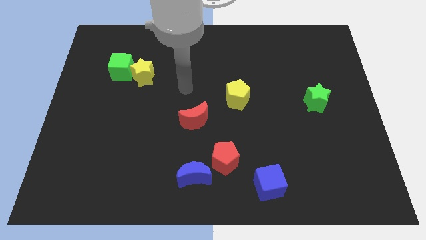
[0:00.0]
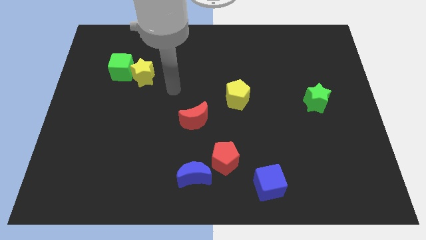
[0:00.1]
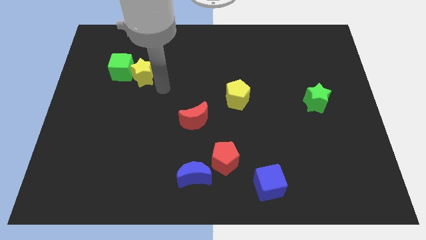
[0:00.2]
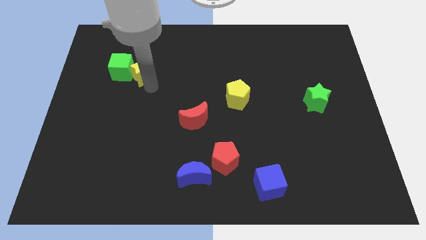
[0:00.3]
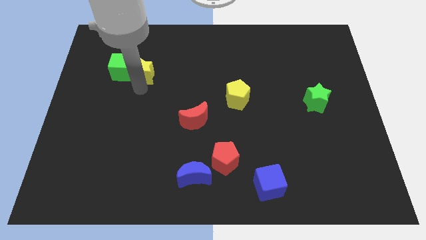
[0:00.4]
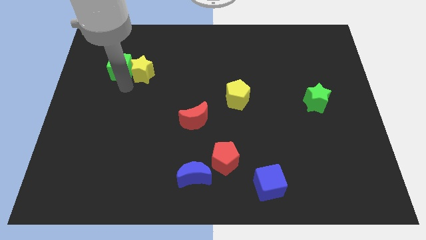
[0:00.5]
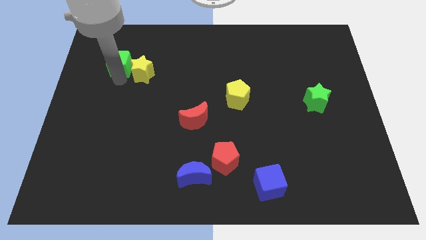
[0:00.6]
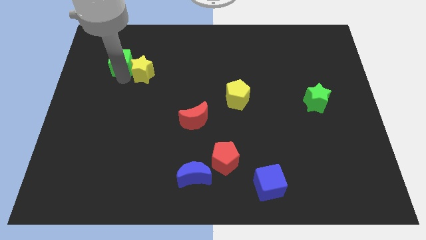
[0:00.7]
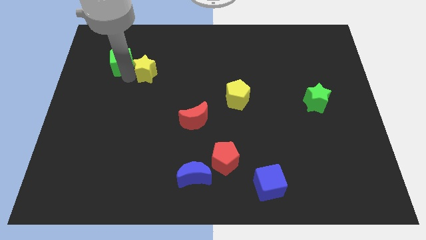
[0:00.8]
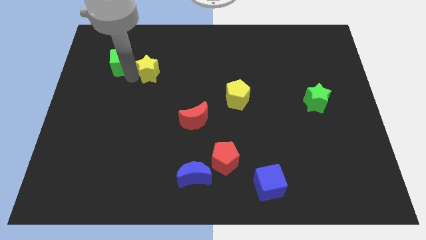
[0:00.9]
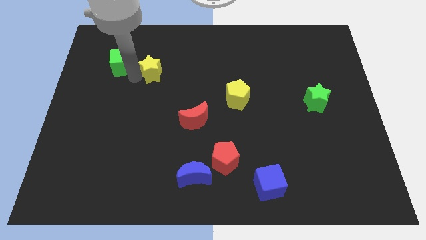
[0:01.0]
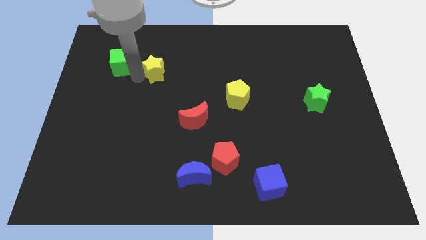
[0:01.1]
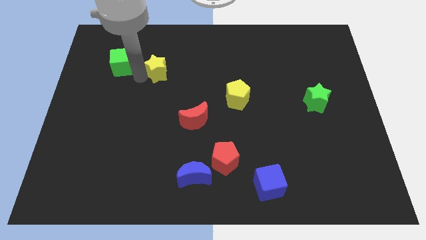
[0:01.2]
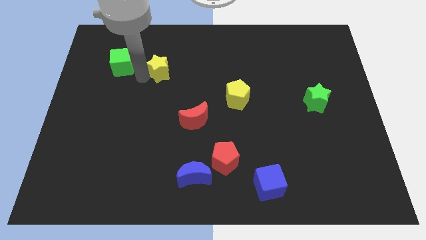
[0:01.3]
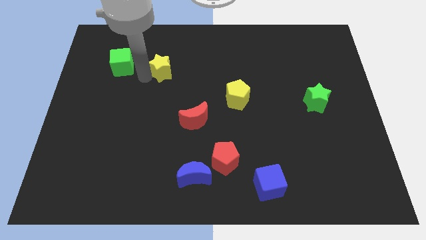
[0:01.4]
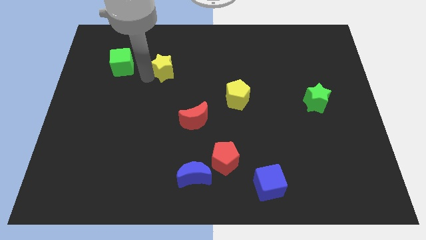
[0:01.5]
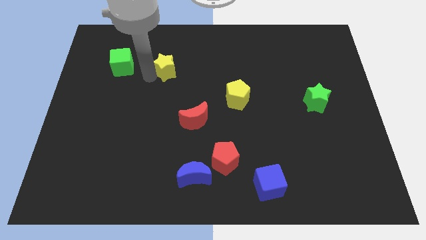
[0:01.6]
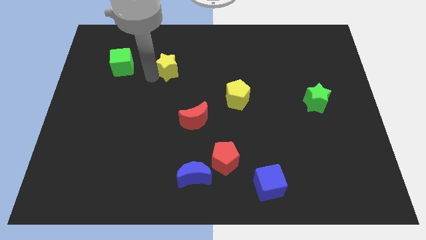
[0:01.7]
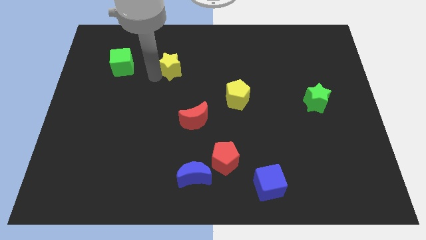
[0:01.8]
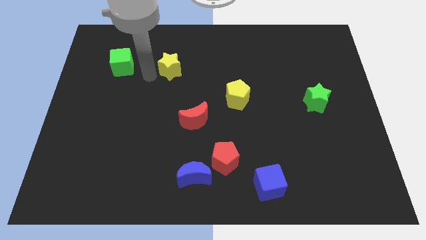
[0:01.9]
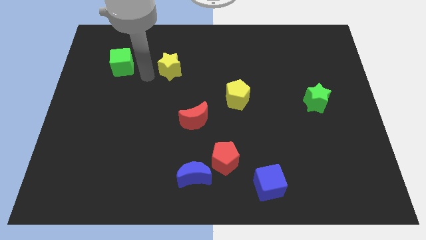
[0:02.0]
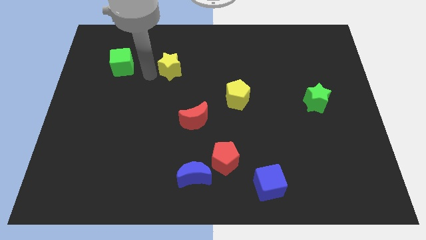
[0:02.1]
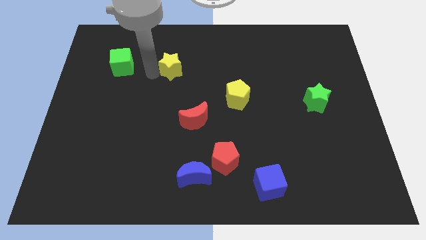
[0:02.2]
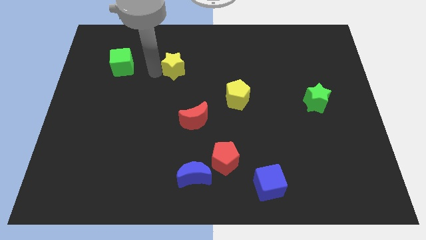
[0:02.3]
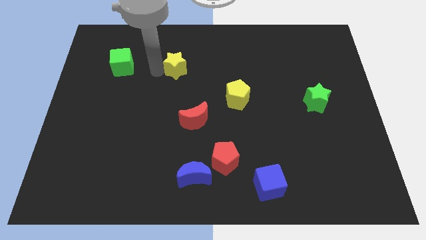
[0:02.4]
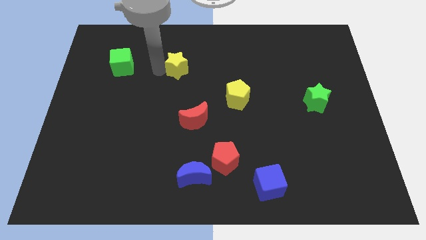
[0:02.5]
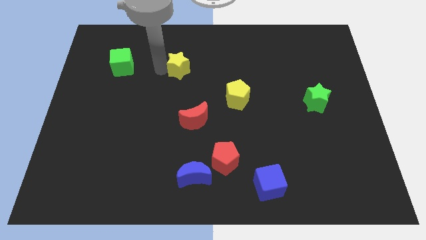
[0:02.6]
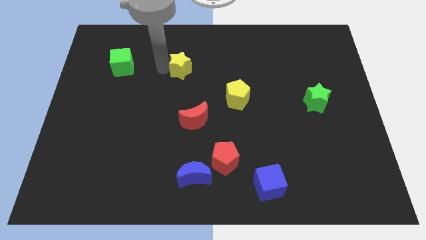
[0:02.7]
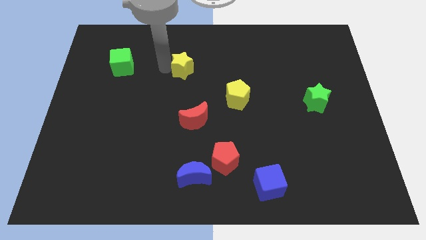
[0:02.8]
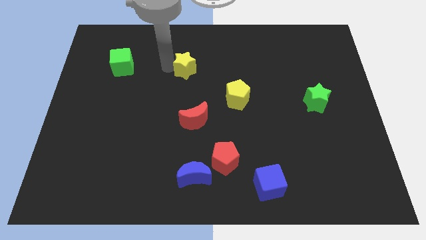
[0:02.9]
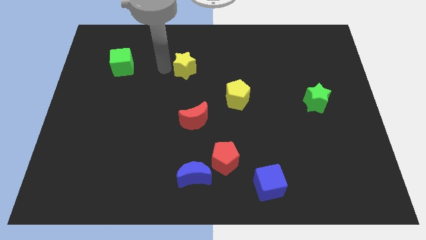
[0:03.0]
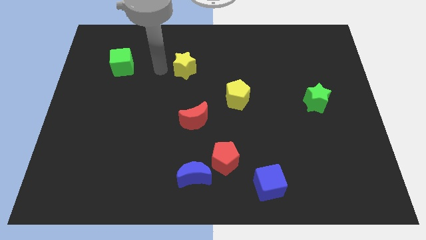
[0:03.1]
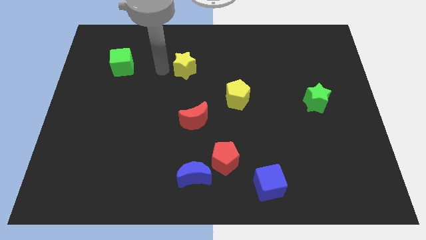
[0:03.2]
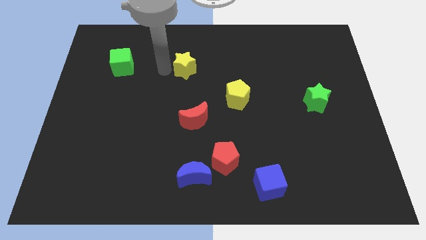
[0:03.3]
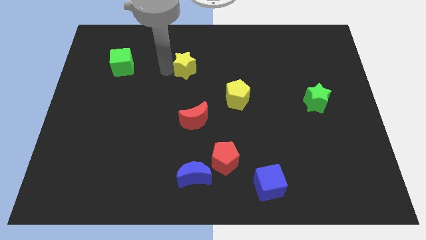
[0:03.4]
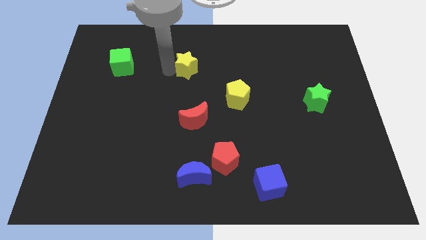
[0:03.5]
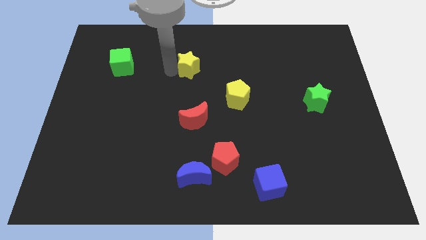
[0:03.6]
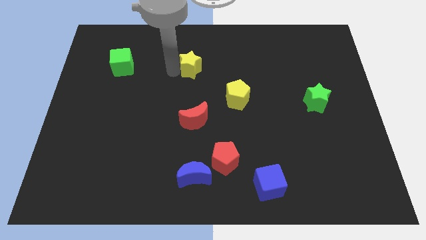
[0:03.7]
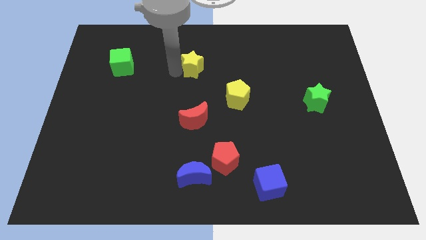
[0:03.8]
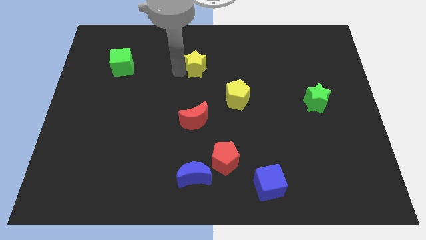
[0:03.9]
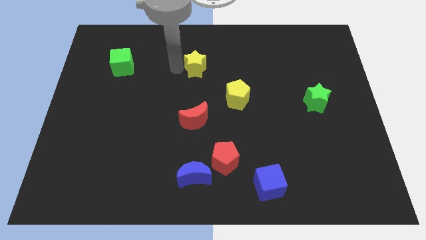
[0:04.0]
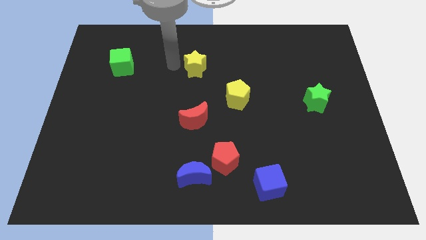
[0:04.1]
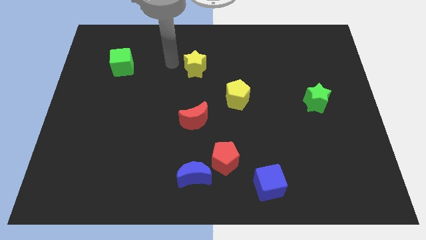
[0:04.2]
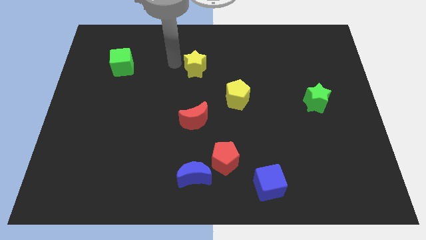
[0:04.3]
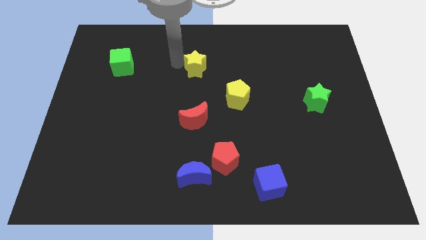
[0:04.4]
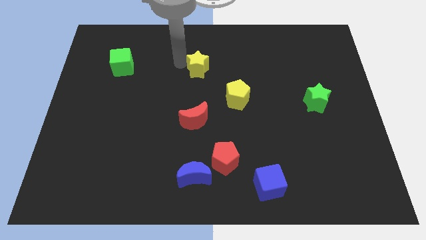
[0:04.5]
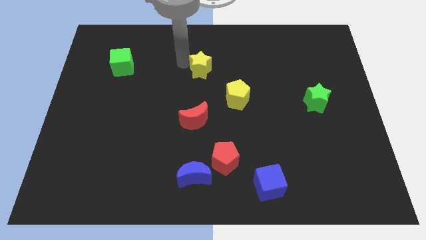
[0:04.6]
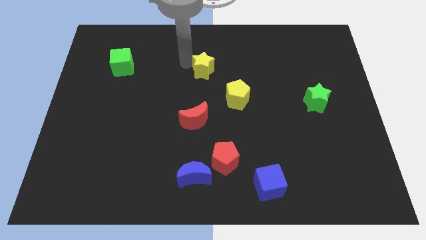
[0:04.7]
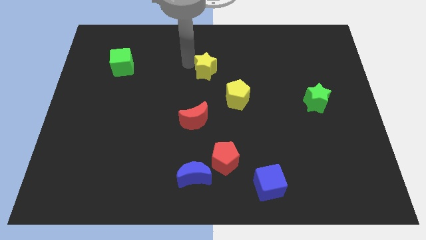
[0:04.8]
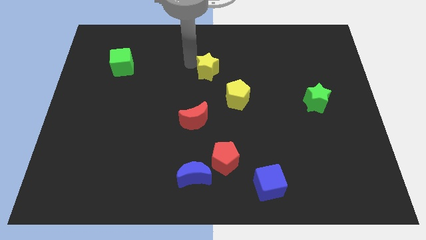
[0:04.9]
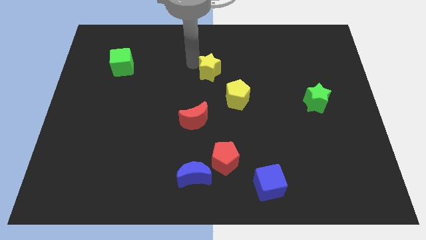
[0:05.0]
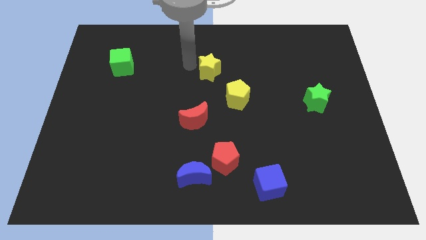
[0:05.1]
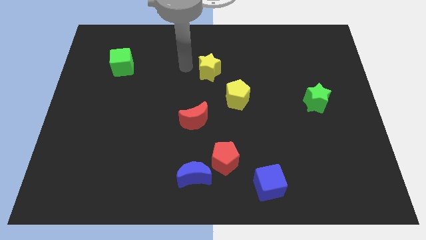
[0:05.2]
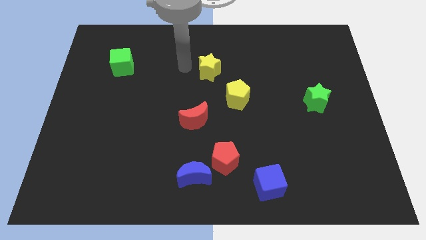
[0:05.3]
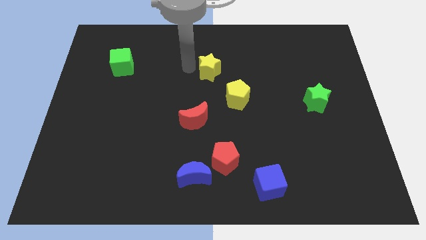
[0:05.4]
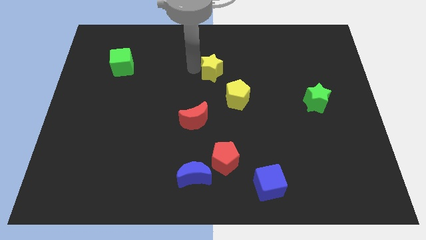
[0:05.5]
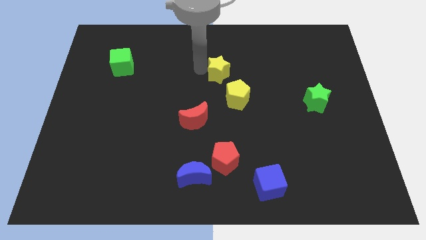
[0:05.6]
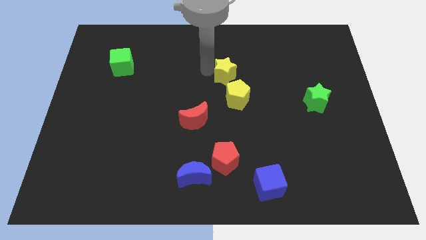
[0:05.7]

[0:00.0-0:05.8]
push the yellow star right

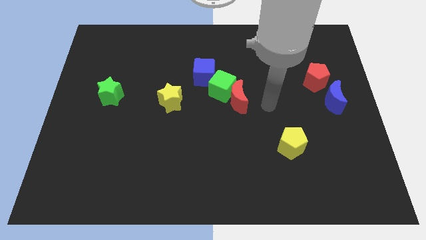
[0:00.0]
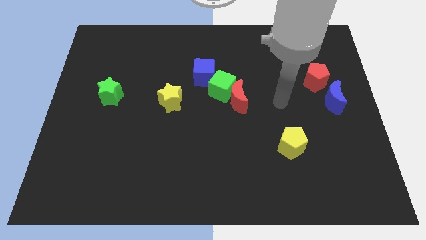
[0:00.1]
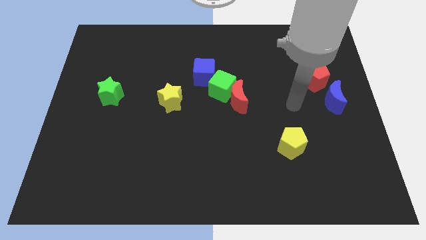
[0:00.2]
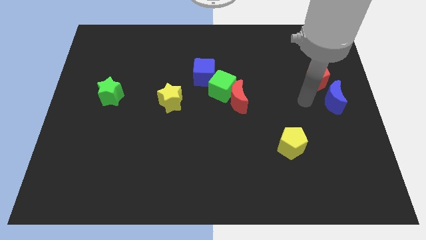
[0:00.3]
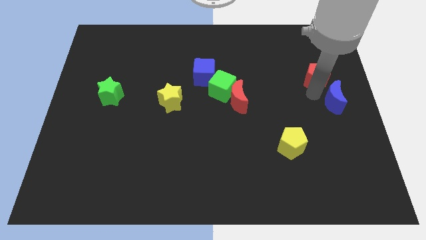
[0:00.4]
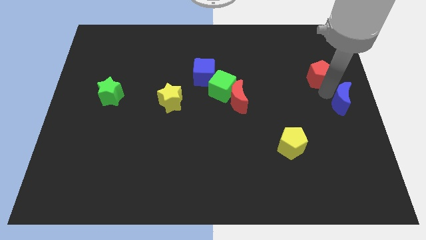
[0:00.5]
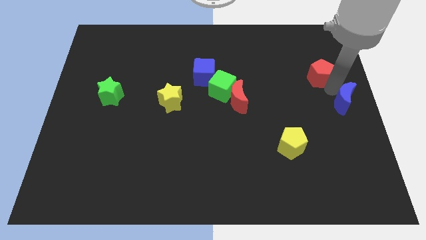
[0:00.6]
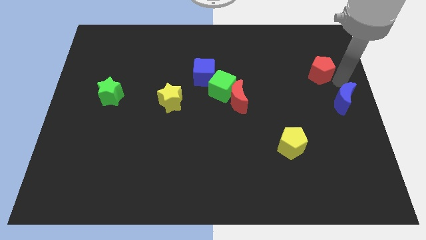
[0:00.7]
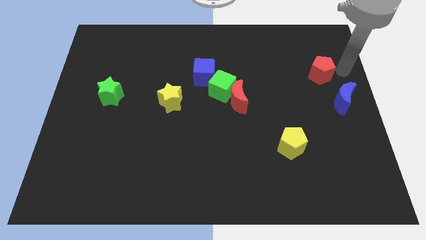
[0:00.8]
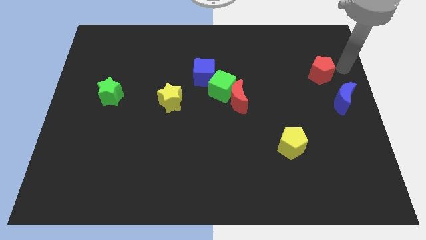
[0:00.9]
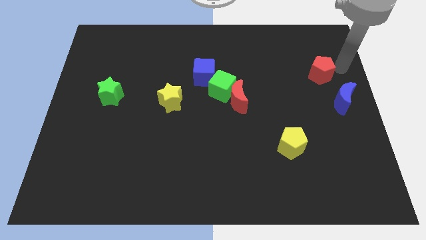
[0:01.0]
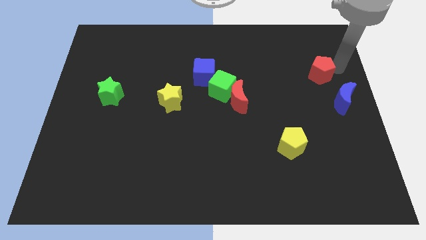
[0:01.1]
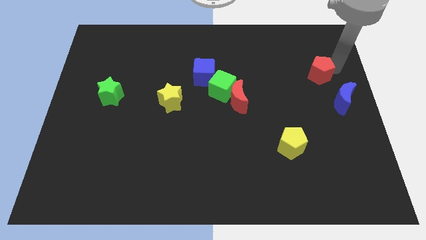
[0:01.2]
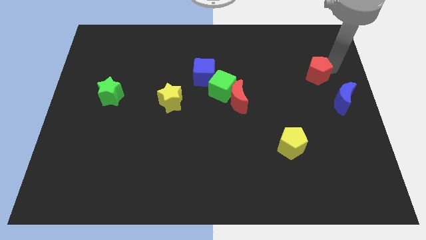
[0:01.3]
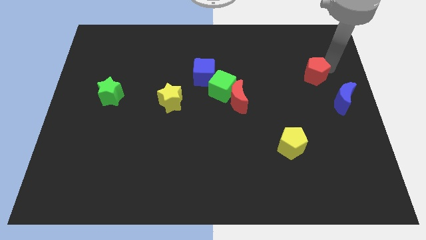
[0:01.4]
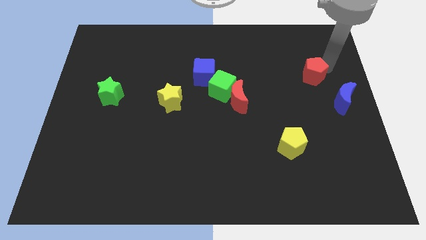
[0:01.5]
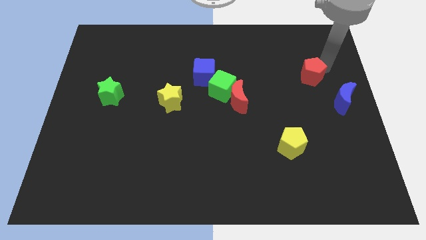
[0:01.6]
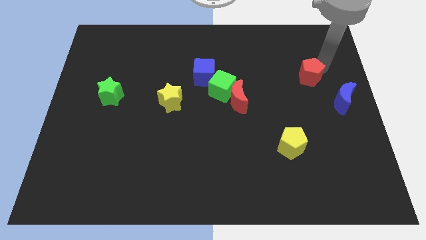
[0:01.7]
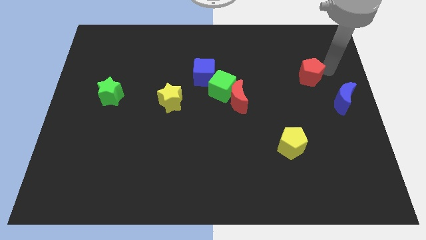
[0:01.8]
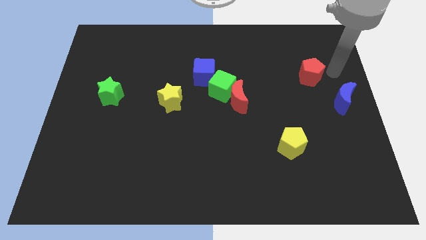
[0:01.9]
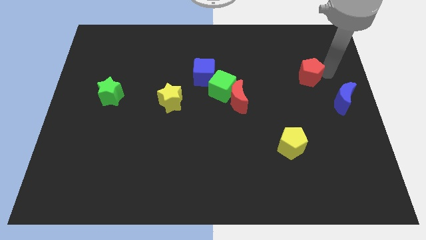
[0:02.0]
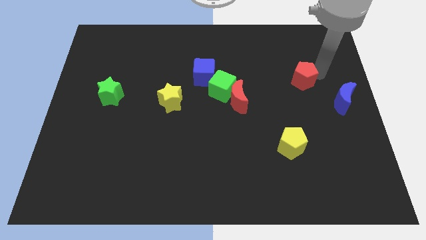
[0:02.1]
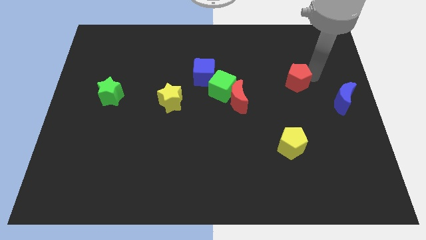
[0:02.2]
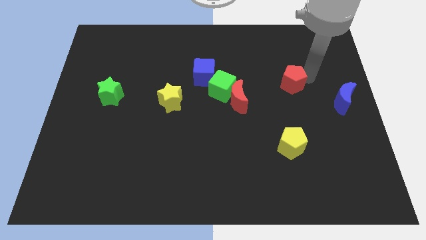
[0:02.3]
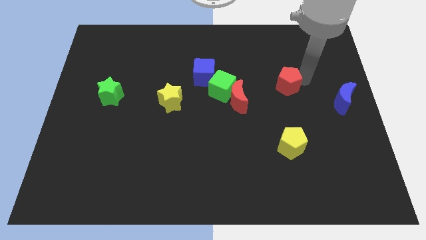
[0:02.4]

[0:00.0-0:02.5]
slide the red pentagon a little bit left
